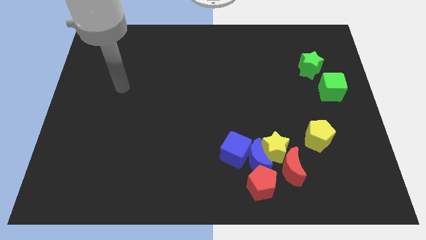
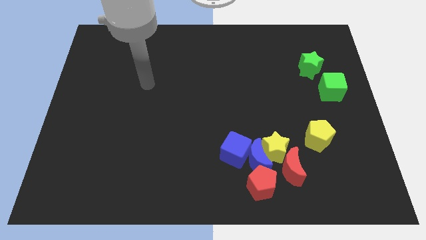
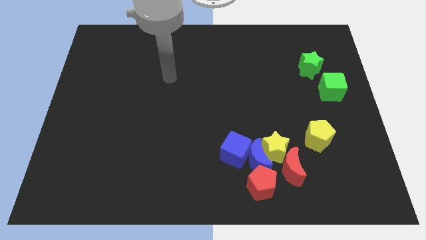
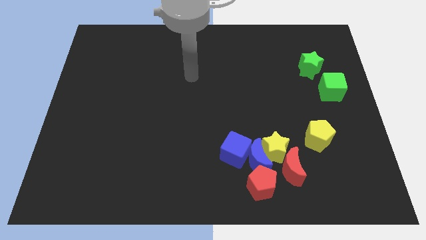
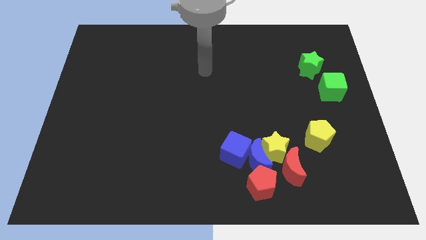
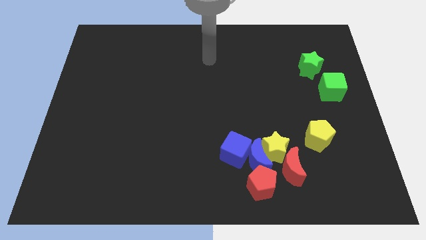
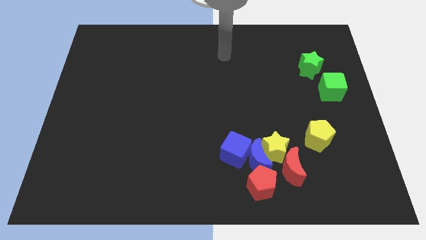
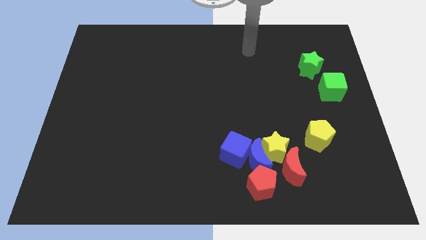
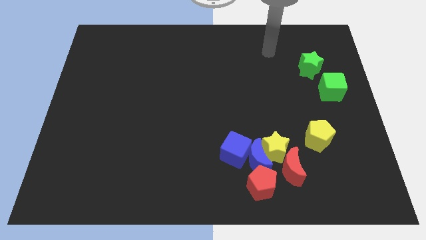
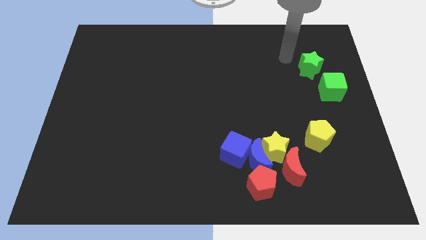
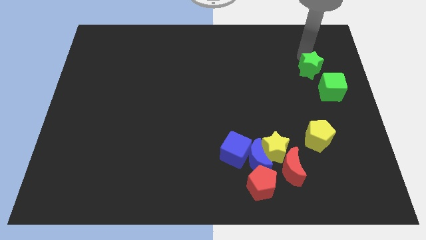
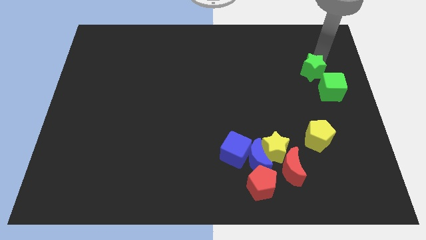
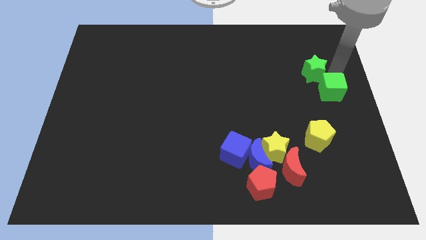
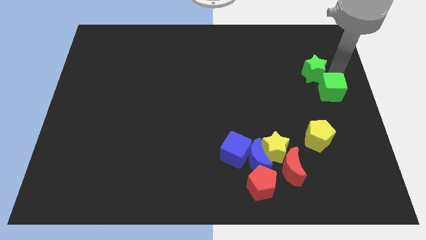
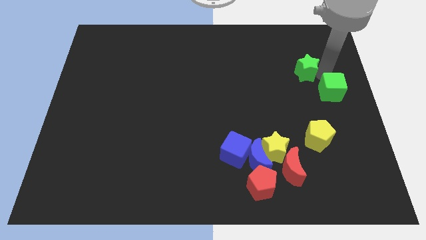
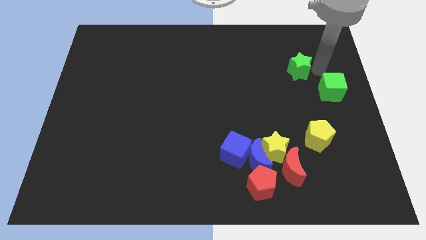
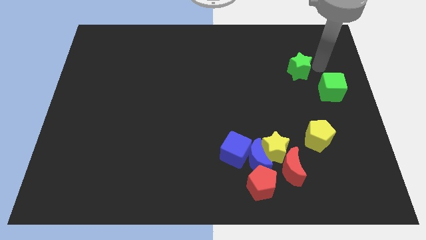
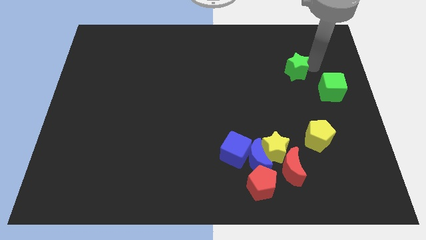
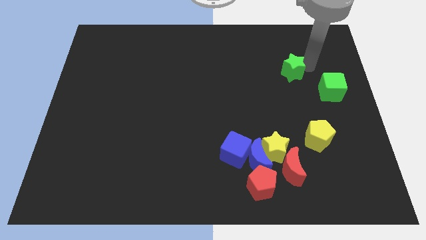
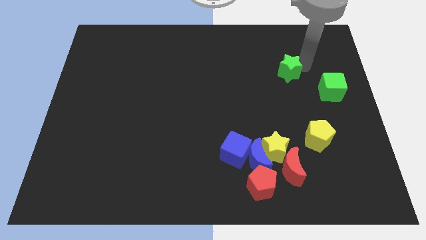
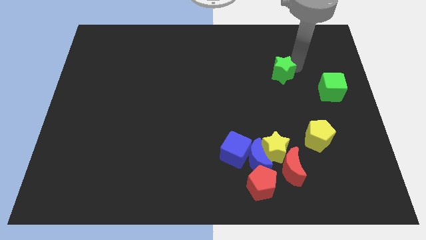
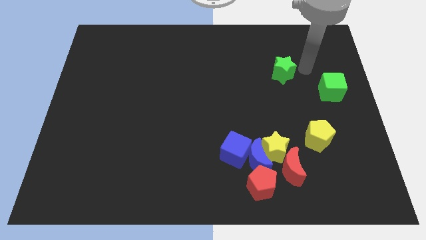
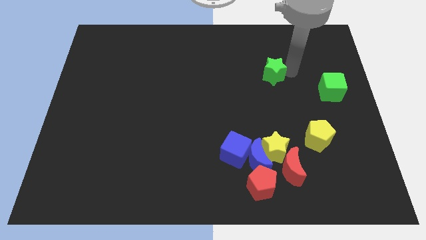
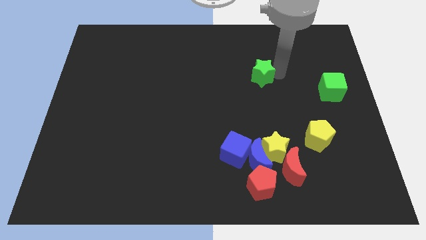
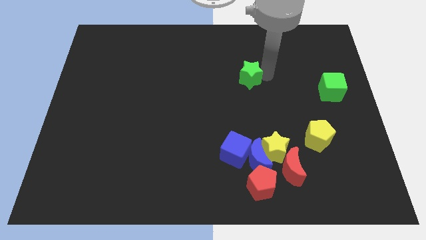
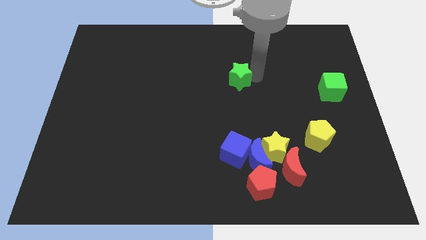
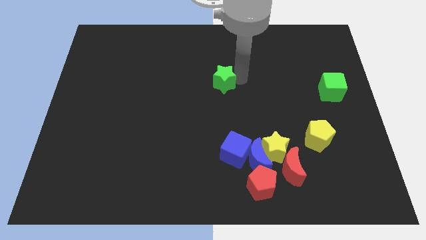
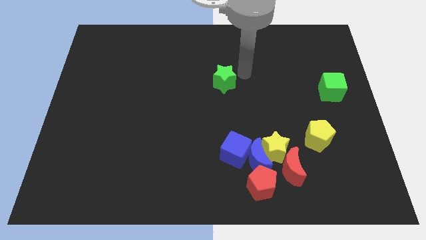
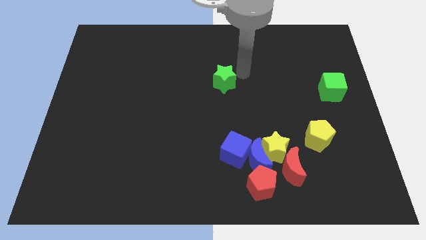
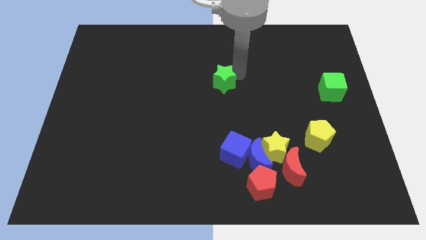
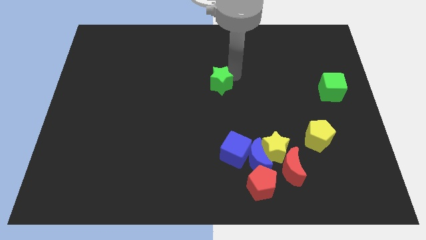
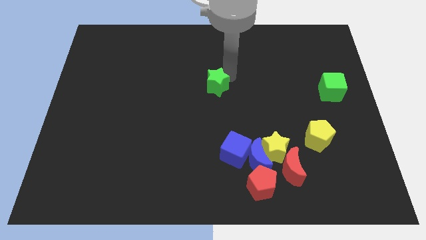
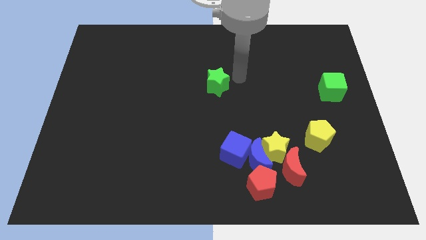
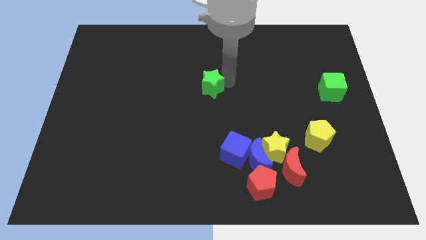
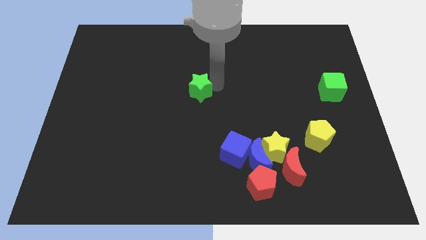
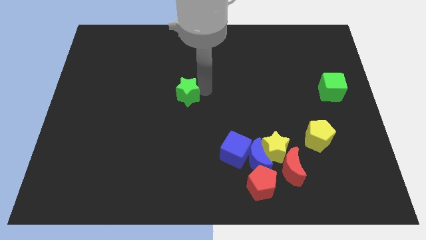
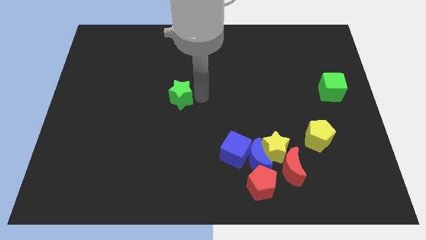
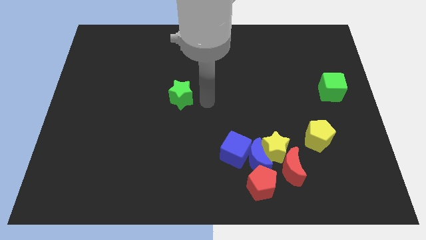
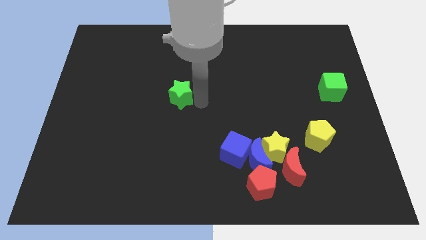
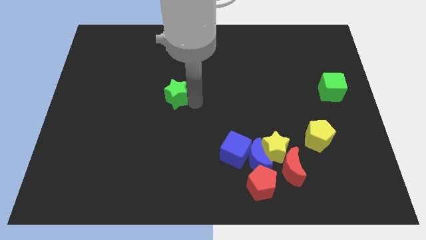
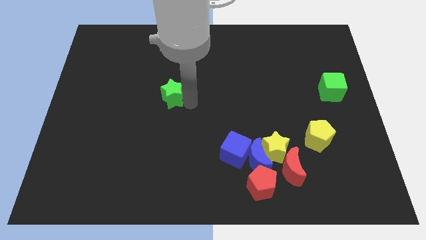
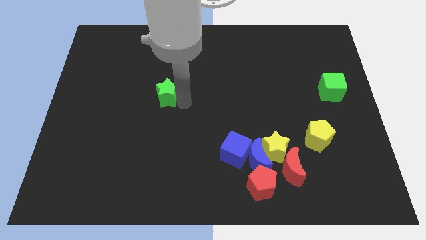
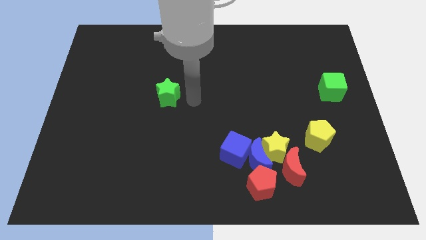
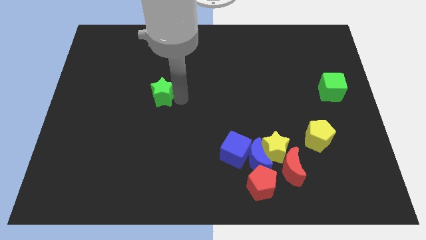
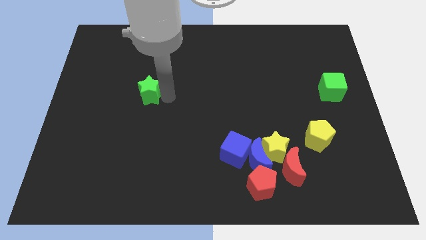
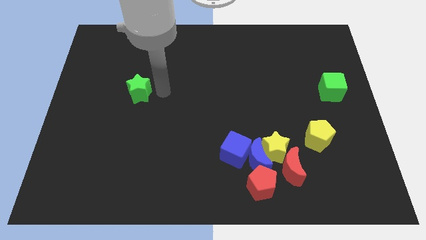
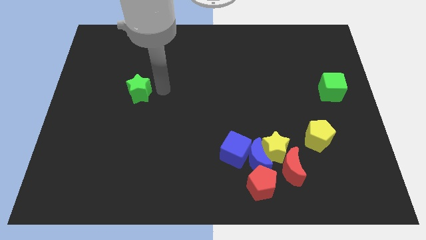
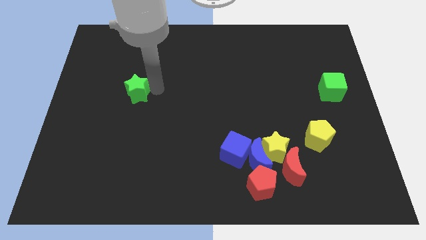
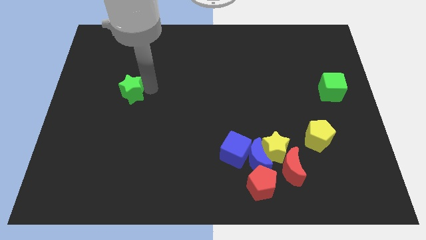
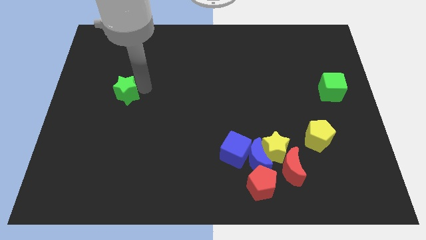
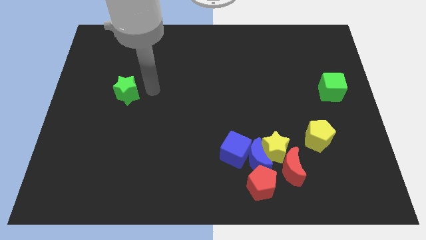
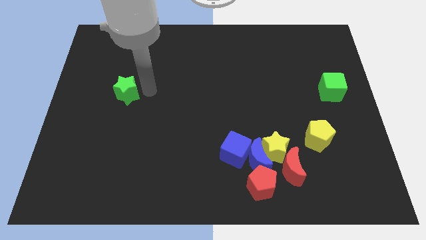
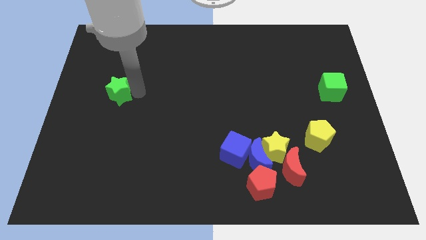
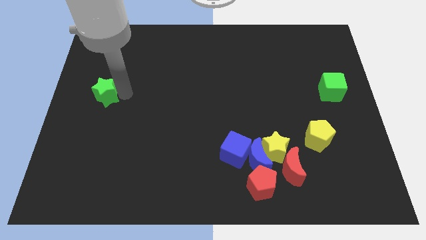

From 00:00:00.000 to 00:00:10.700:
push the green star to the center left

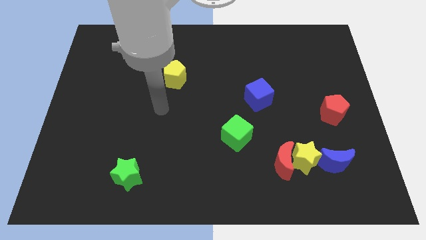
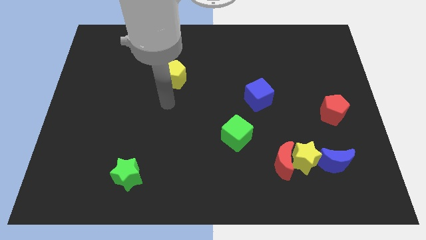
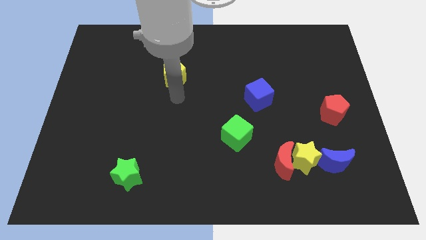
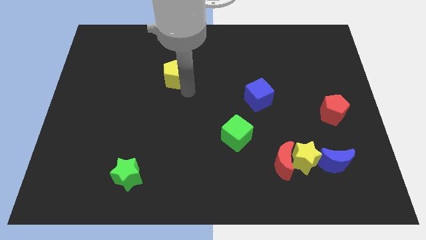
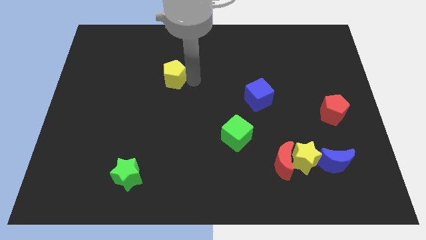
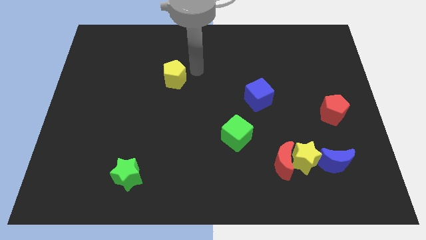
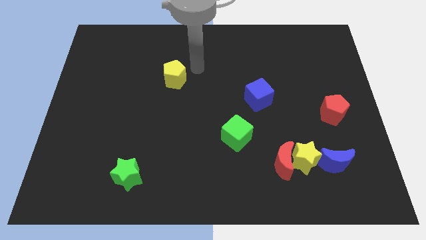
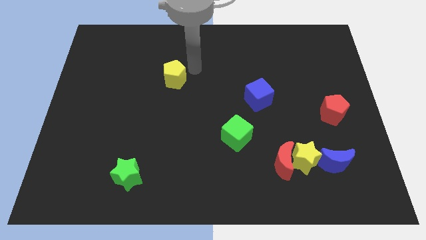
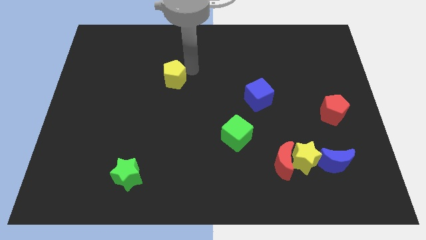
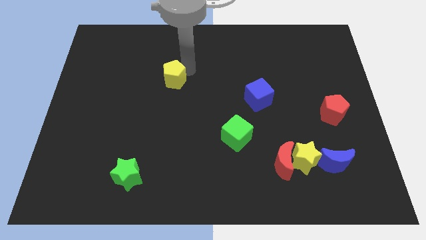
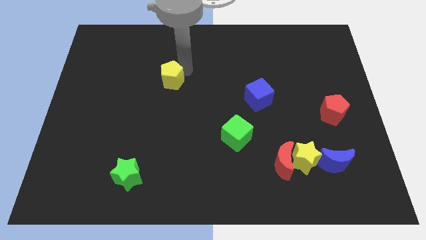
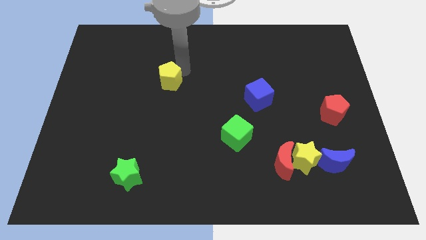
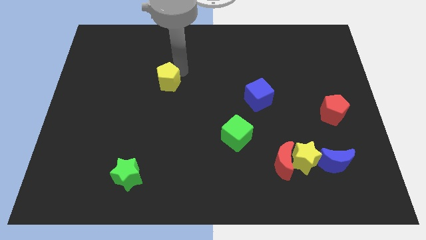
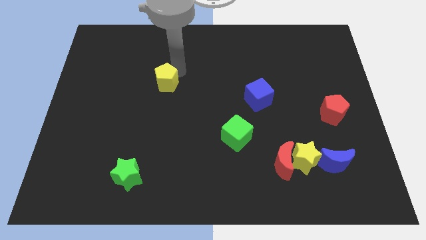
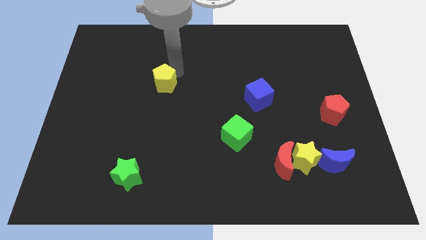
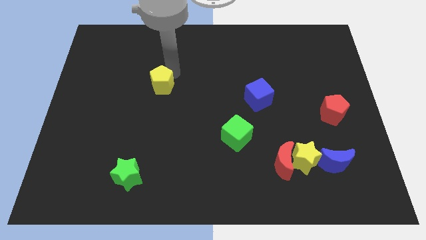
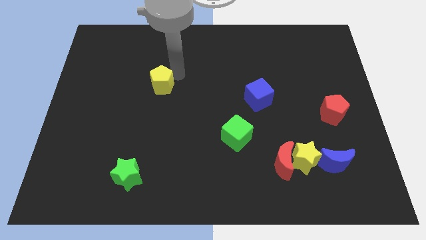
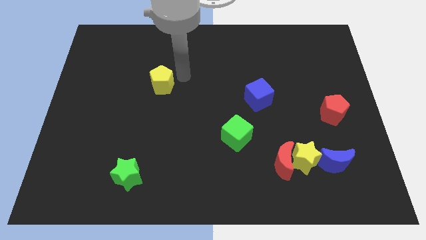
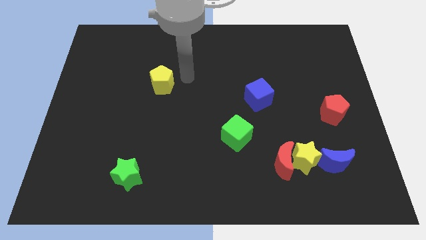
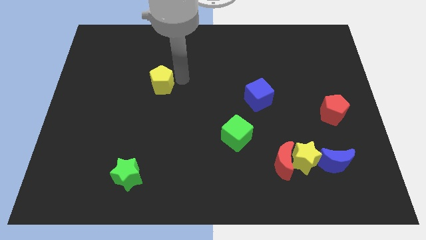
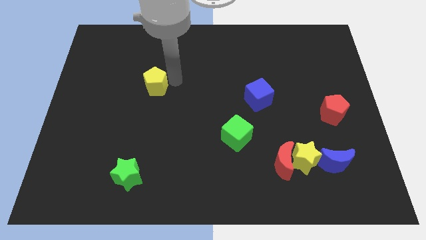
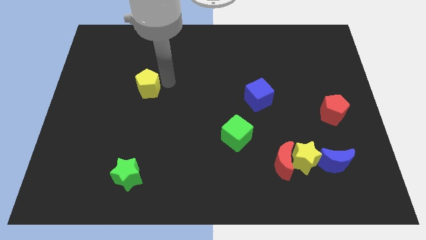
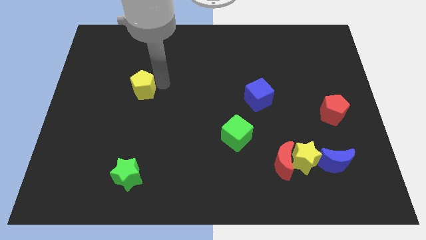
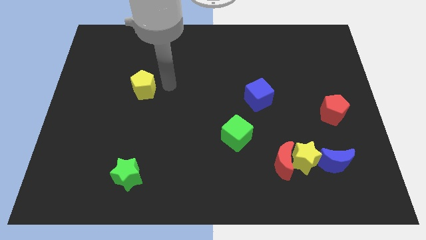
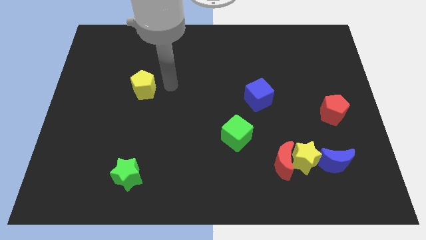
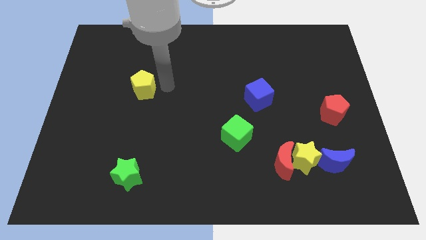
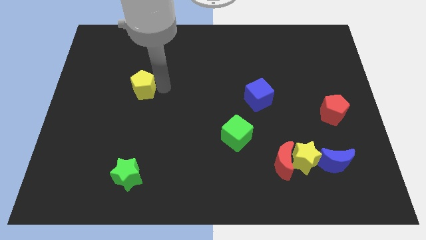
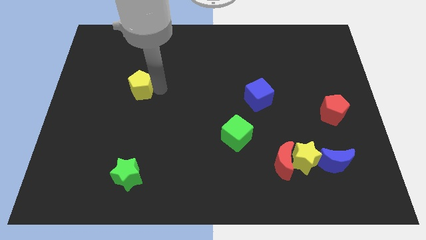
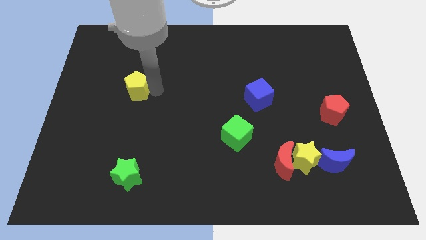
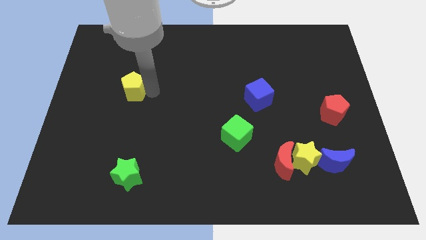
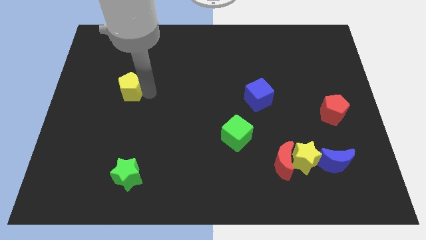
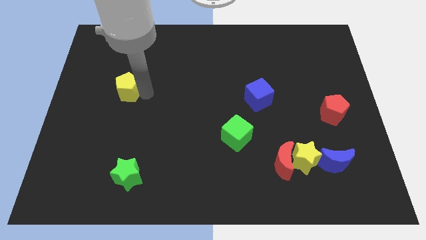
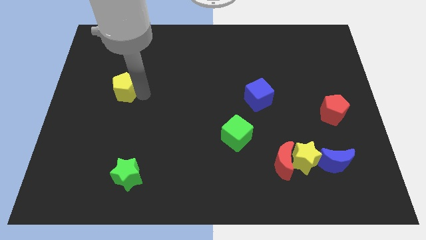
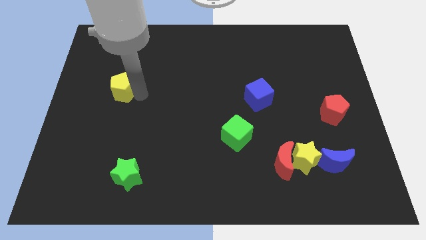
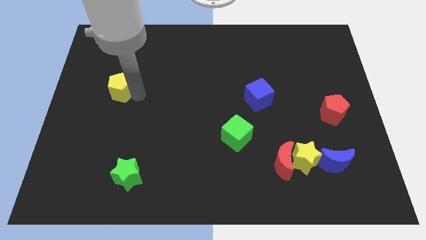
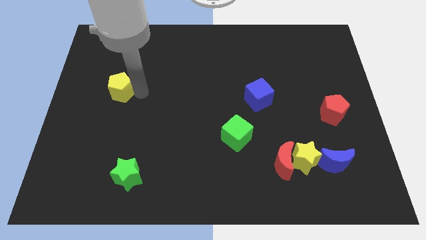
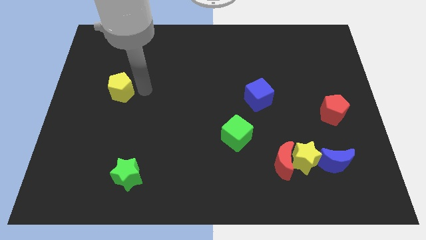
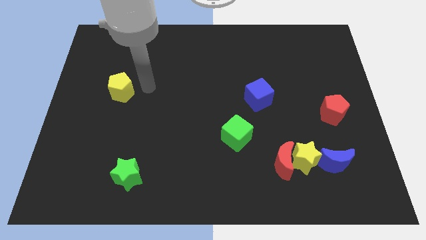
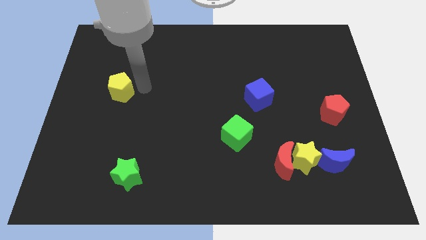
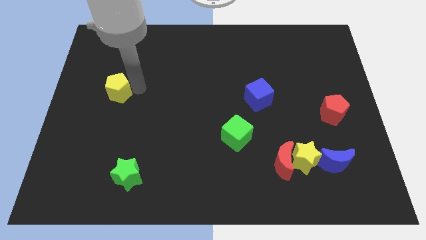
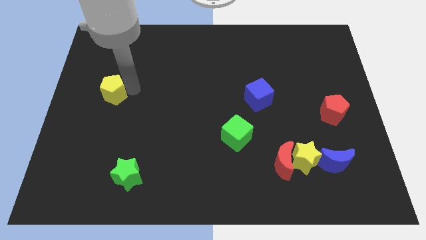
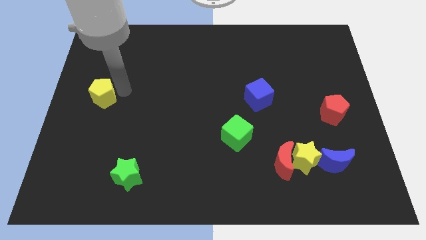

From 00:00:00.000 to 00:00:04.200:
slide the yellow pentagon to the left side
